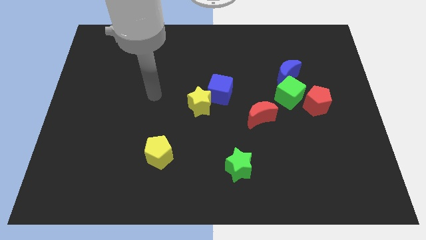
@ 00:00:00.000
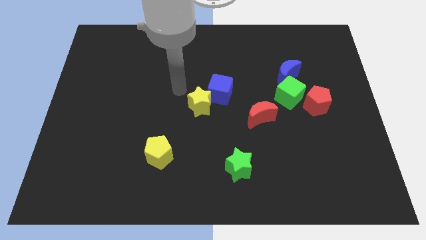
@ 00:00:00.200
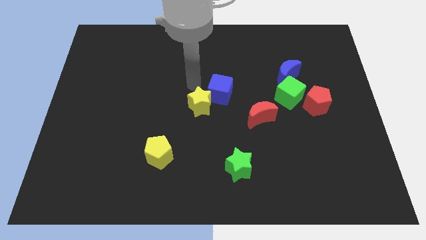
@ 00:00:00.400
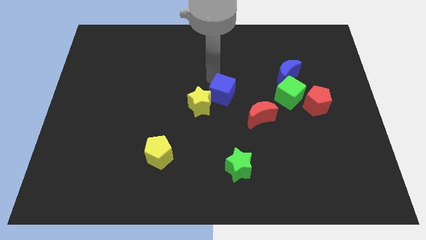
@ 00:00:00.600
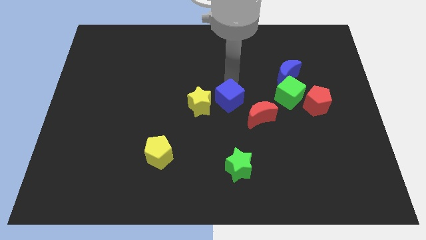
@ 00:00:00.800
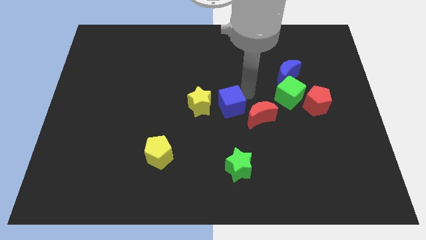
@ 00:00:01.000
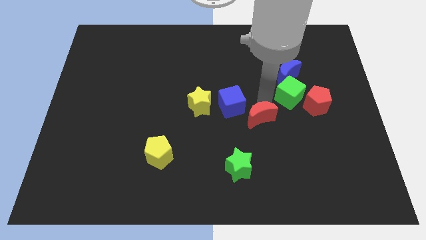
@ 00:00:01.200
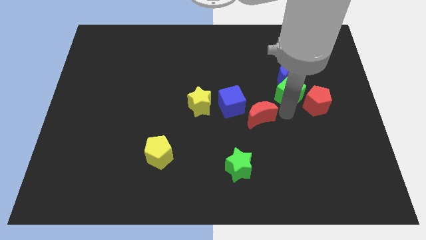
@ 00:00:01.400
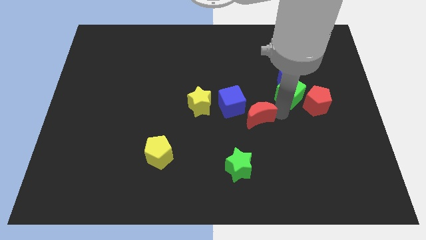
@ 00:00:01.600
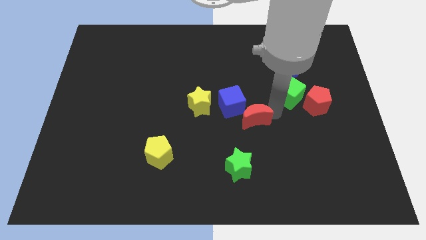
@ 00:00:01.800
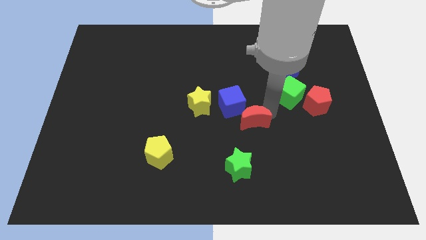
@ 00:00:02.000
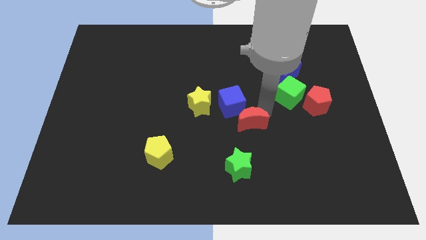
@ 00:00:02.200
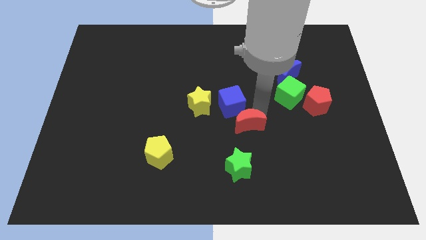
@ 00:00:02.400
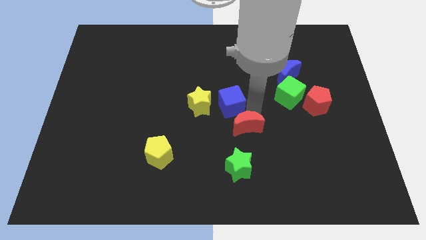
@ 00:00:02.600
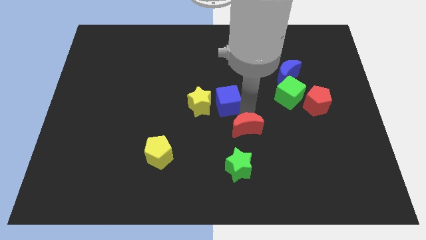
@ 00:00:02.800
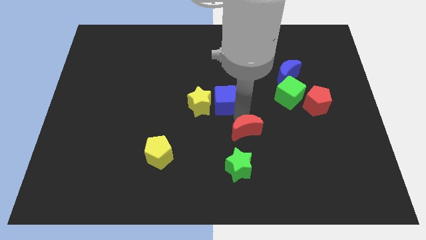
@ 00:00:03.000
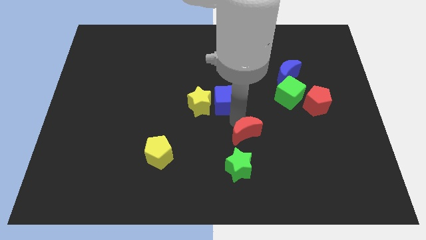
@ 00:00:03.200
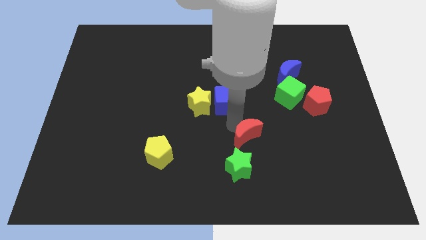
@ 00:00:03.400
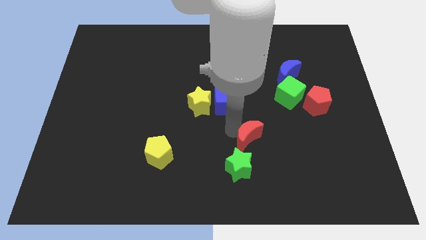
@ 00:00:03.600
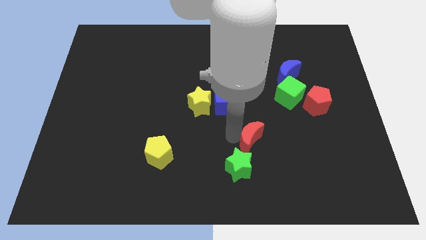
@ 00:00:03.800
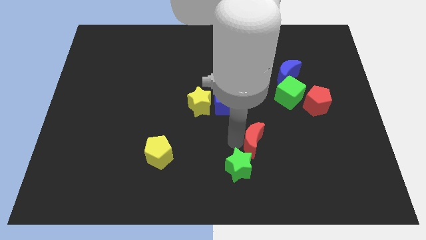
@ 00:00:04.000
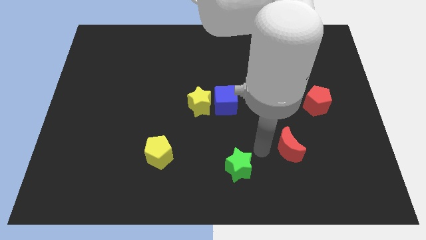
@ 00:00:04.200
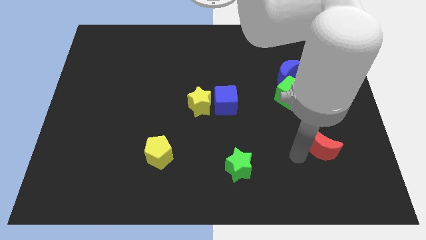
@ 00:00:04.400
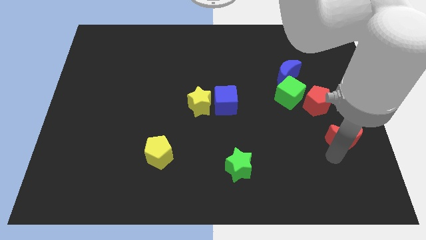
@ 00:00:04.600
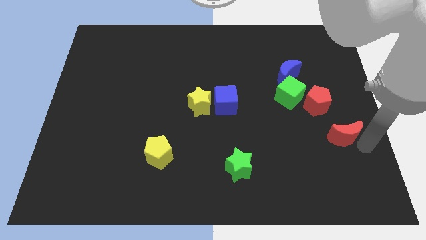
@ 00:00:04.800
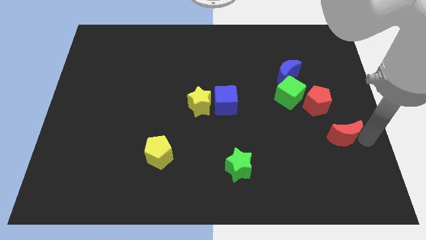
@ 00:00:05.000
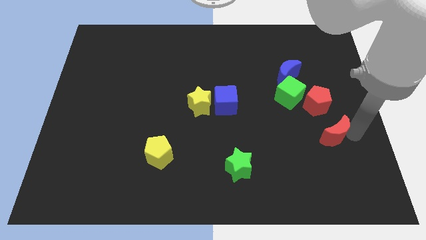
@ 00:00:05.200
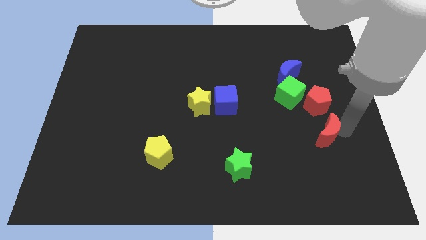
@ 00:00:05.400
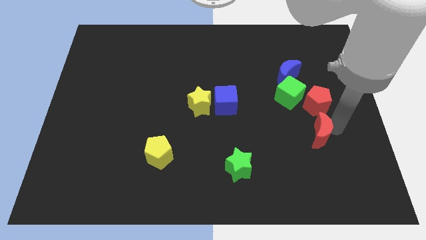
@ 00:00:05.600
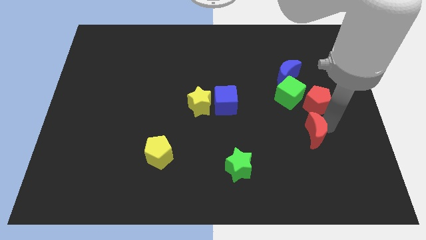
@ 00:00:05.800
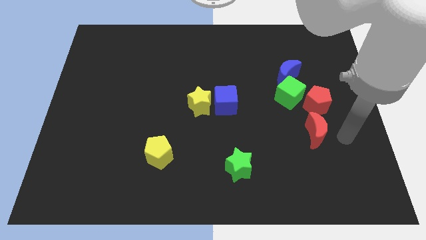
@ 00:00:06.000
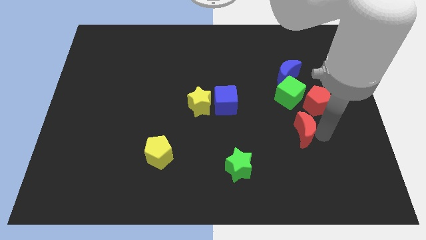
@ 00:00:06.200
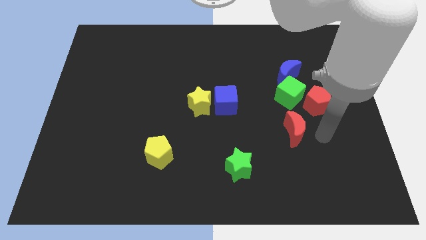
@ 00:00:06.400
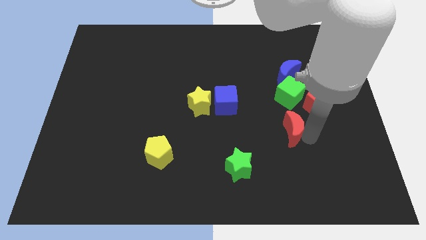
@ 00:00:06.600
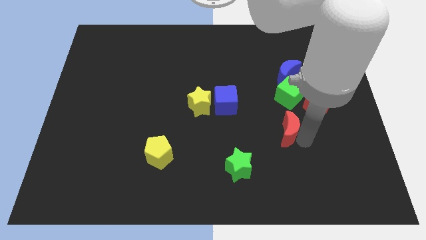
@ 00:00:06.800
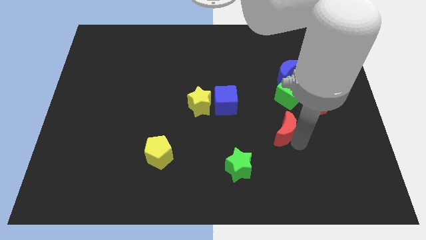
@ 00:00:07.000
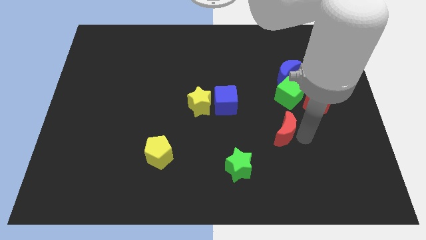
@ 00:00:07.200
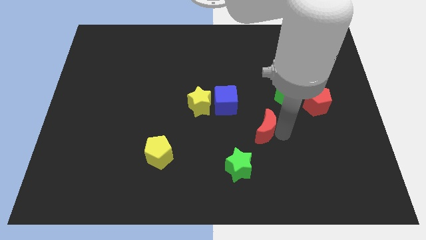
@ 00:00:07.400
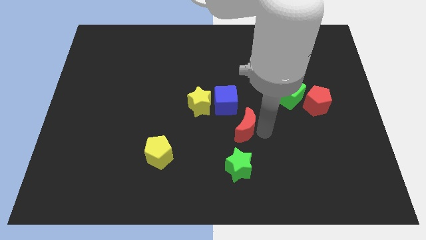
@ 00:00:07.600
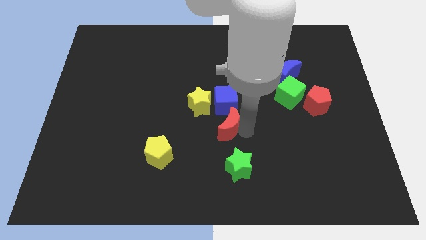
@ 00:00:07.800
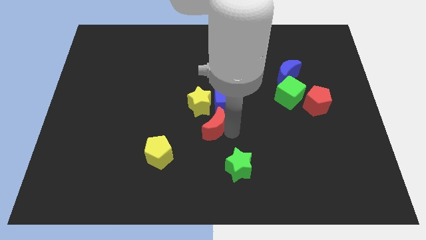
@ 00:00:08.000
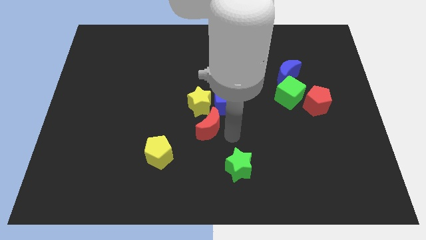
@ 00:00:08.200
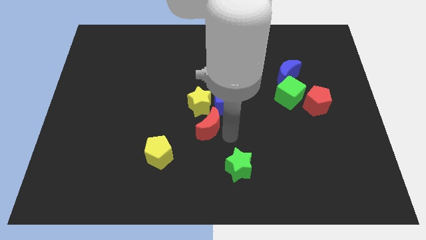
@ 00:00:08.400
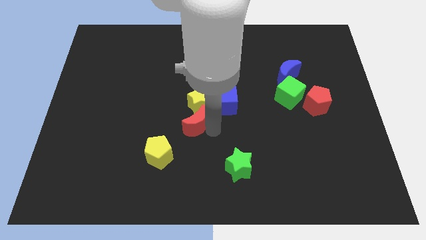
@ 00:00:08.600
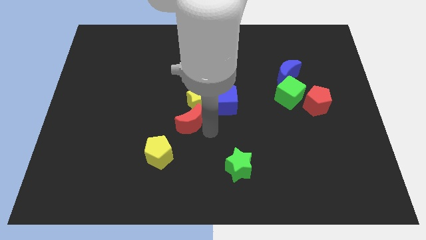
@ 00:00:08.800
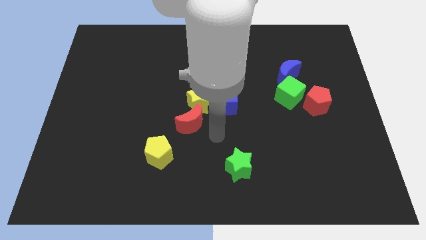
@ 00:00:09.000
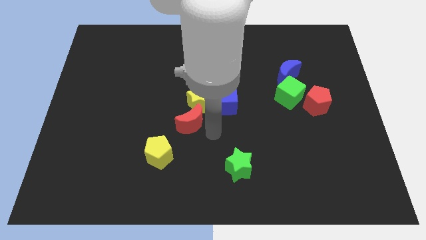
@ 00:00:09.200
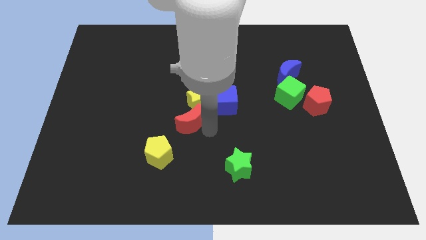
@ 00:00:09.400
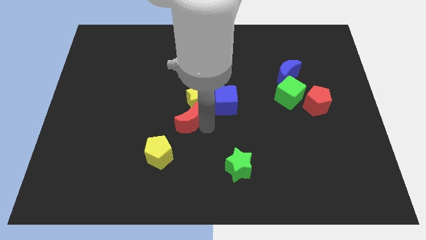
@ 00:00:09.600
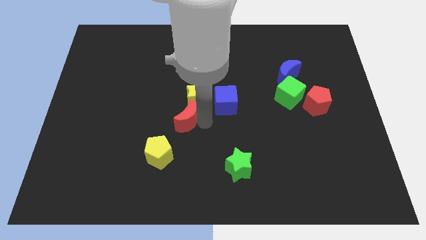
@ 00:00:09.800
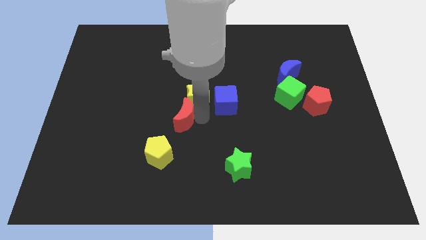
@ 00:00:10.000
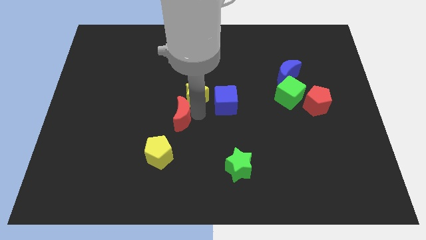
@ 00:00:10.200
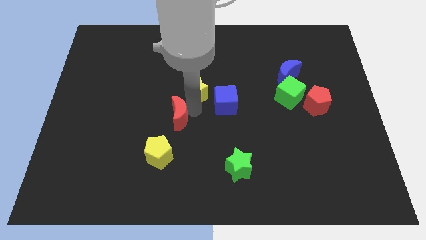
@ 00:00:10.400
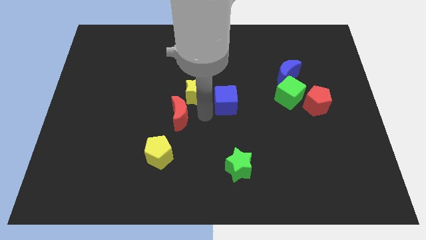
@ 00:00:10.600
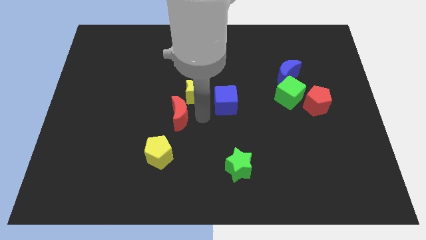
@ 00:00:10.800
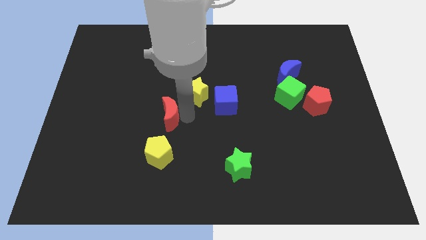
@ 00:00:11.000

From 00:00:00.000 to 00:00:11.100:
push the red moon to the left

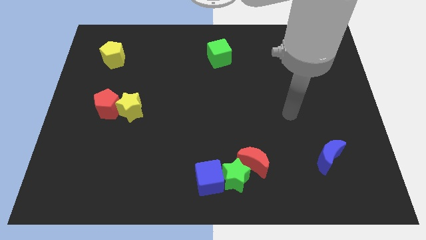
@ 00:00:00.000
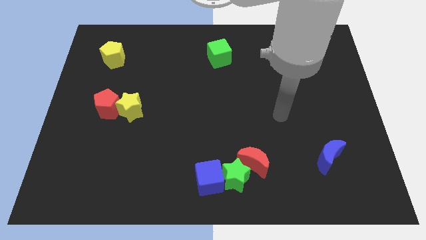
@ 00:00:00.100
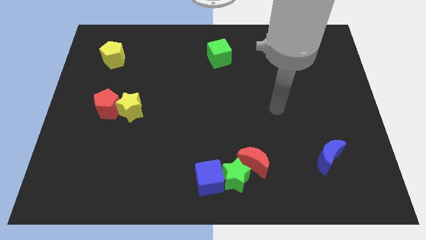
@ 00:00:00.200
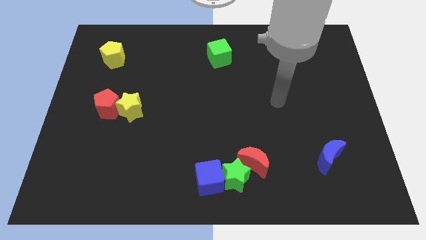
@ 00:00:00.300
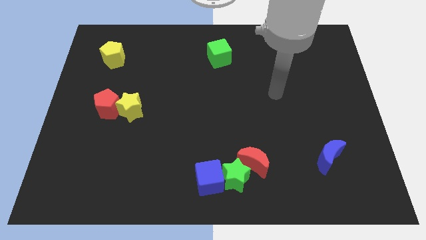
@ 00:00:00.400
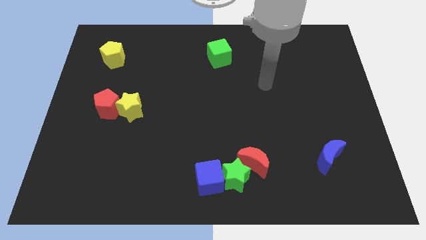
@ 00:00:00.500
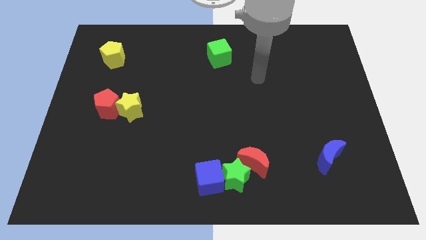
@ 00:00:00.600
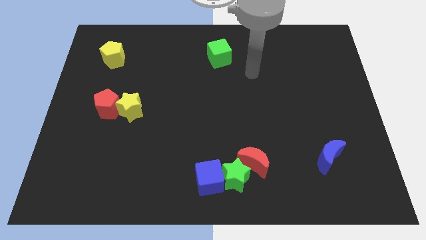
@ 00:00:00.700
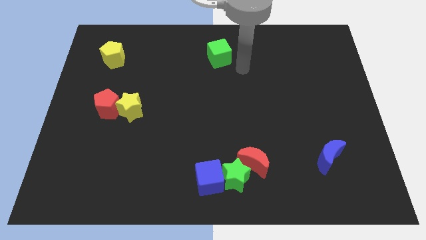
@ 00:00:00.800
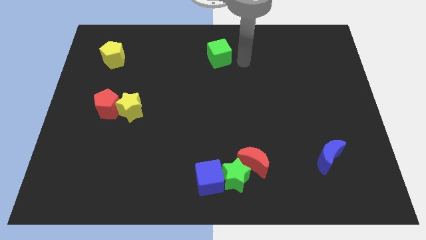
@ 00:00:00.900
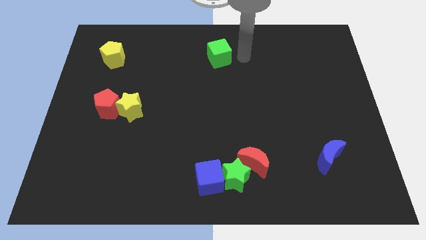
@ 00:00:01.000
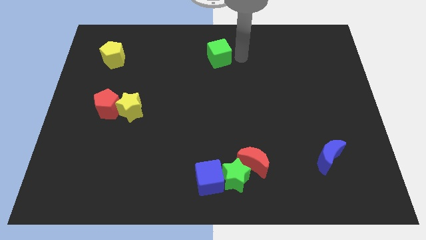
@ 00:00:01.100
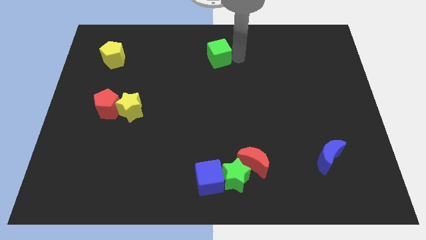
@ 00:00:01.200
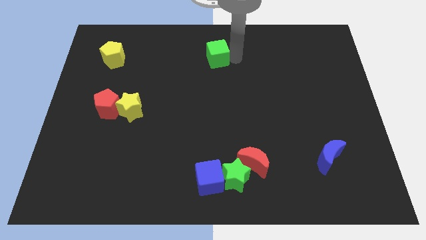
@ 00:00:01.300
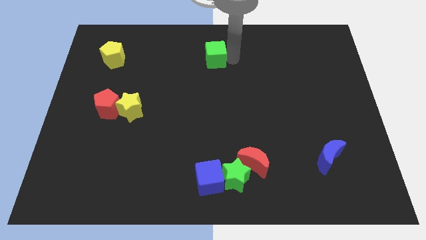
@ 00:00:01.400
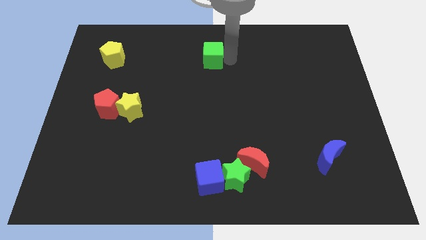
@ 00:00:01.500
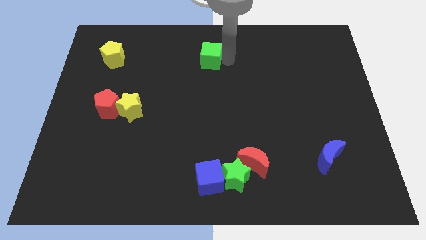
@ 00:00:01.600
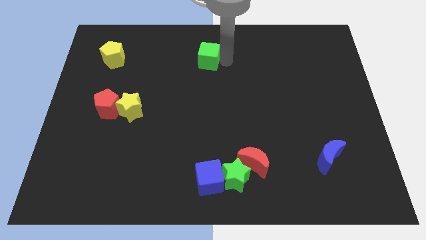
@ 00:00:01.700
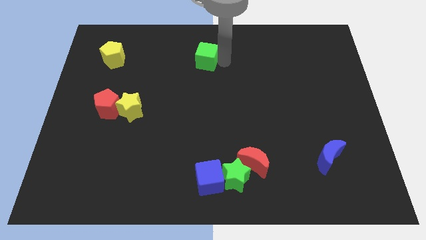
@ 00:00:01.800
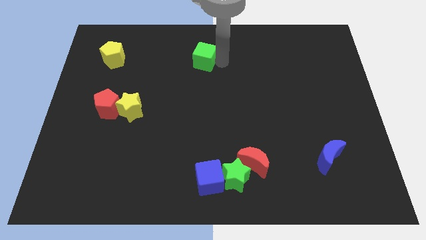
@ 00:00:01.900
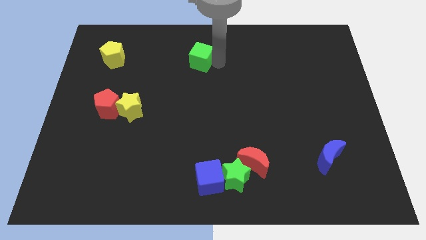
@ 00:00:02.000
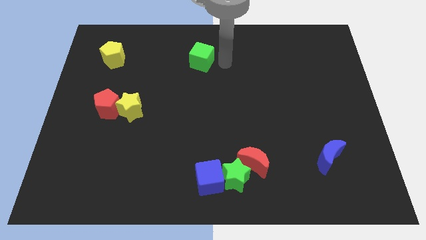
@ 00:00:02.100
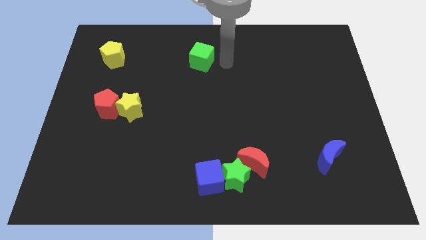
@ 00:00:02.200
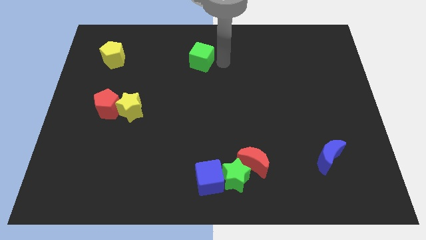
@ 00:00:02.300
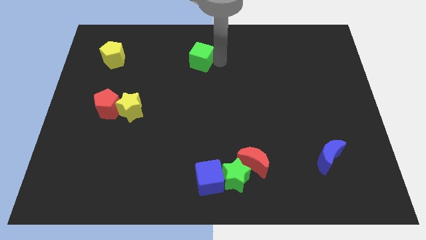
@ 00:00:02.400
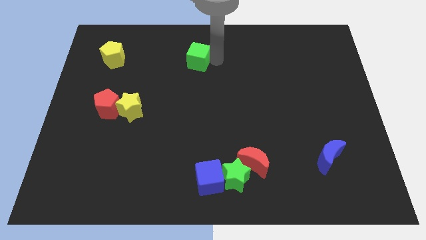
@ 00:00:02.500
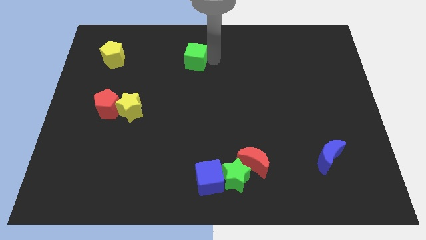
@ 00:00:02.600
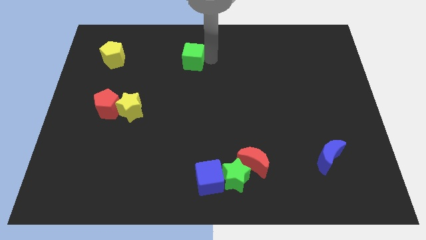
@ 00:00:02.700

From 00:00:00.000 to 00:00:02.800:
slightly move the green cube left
